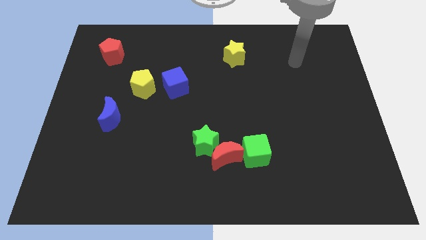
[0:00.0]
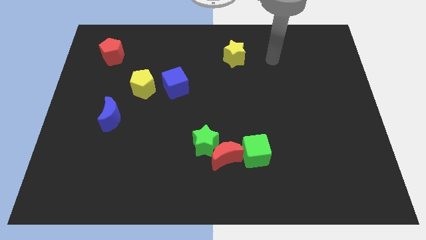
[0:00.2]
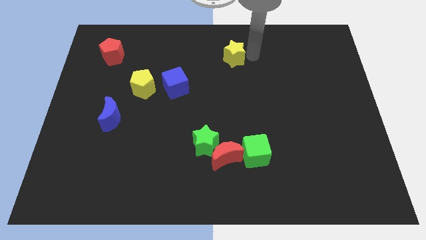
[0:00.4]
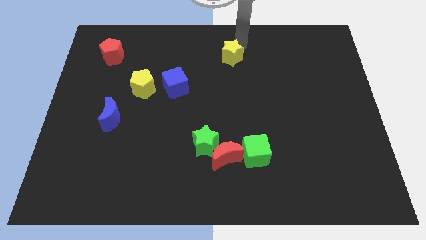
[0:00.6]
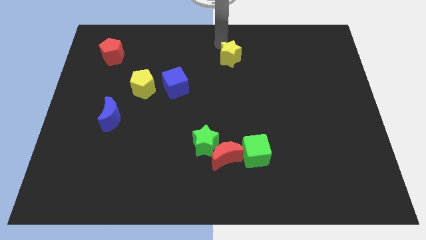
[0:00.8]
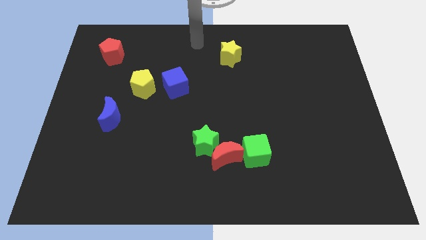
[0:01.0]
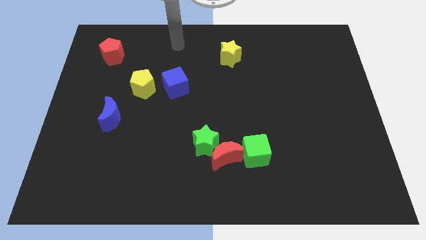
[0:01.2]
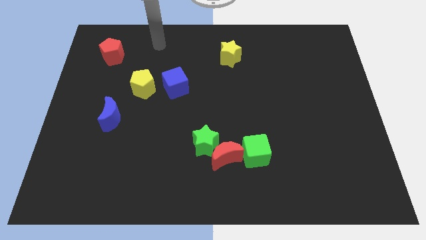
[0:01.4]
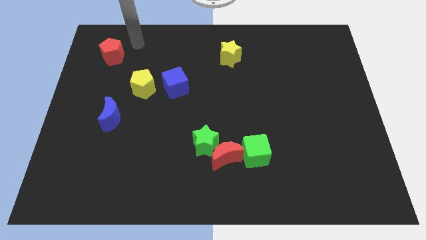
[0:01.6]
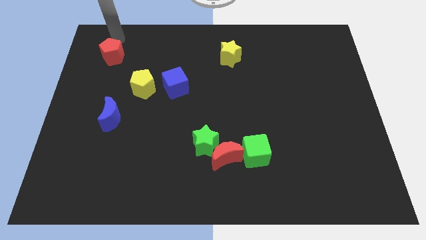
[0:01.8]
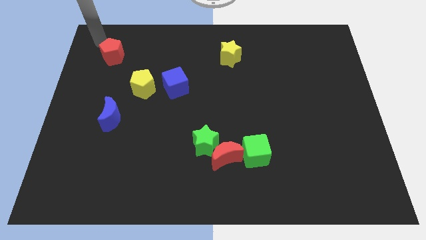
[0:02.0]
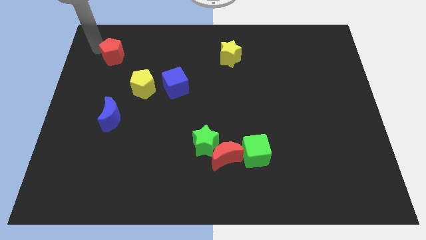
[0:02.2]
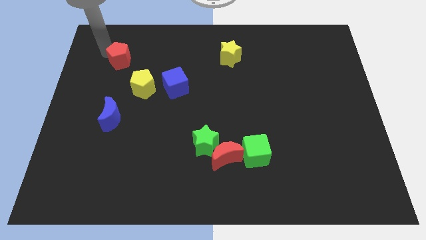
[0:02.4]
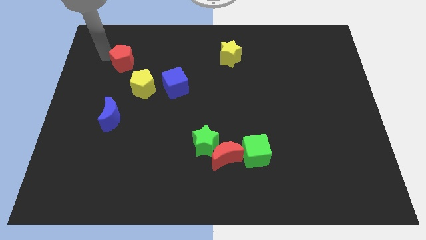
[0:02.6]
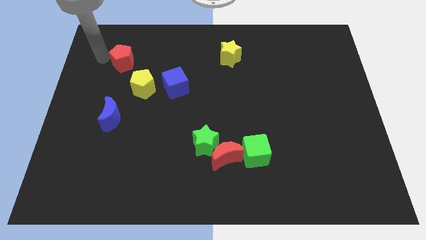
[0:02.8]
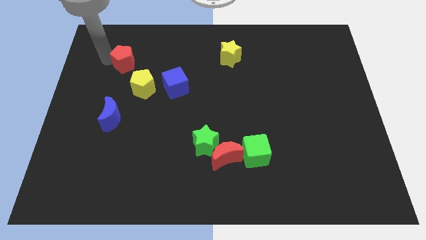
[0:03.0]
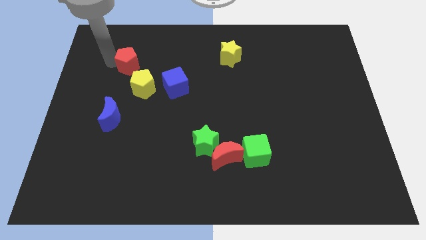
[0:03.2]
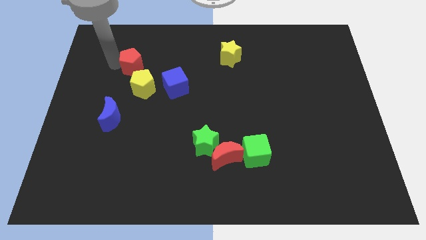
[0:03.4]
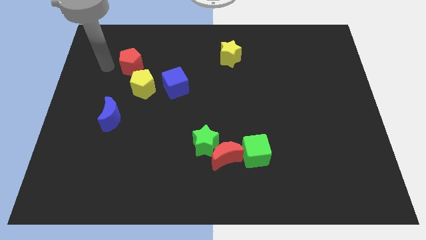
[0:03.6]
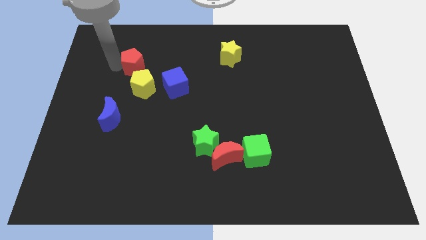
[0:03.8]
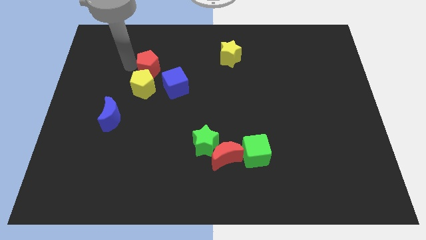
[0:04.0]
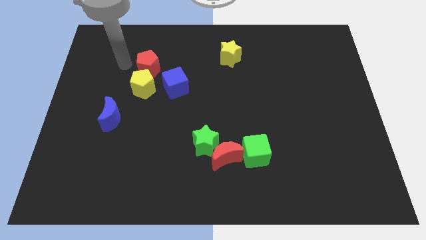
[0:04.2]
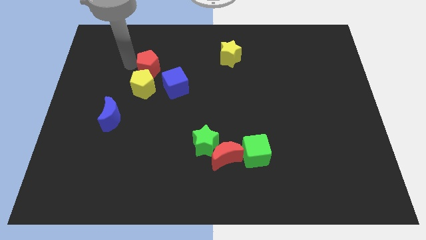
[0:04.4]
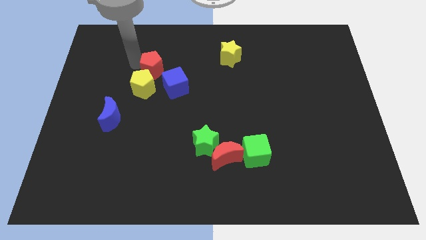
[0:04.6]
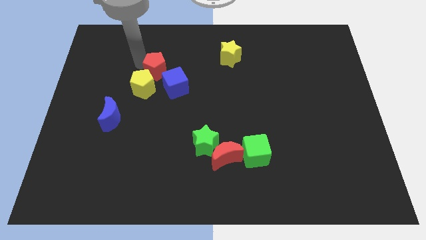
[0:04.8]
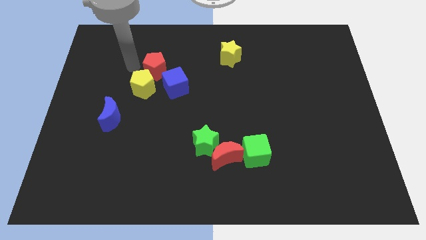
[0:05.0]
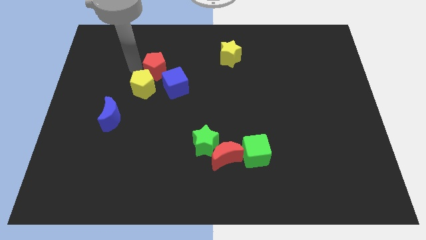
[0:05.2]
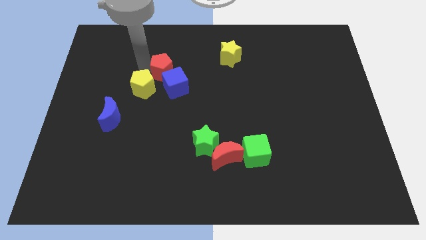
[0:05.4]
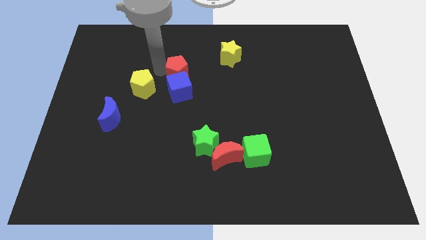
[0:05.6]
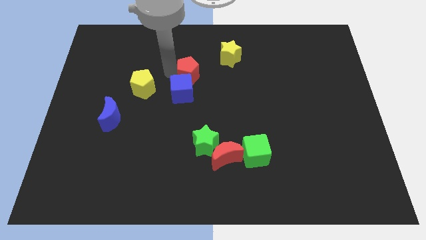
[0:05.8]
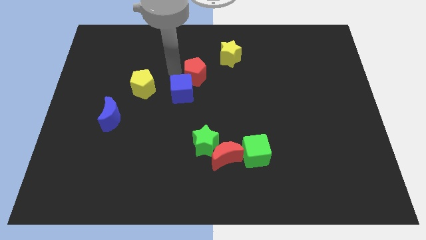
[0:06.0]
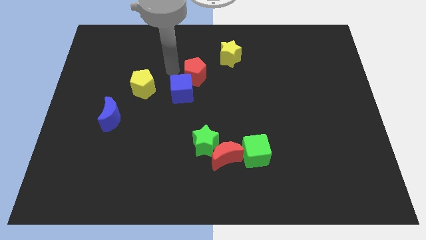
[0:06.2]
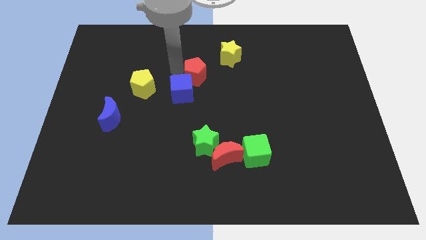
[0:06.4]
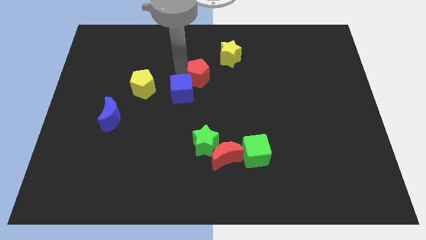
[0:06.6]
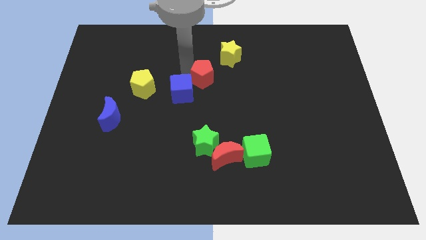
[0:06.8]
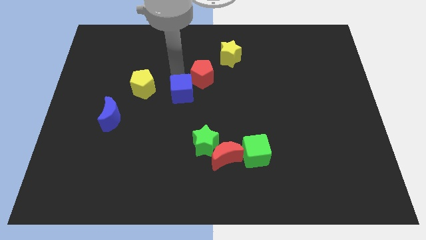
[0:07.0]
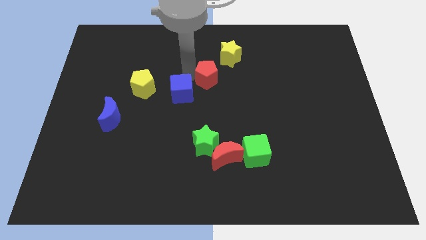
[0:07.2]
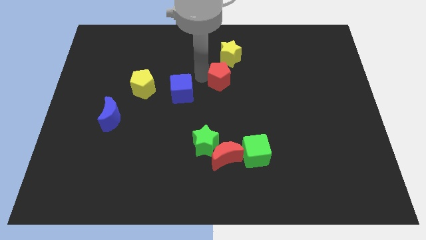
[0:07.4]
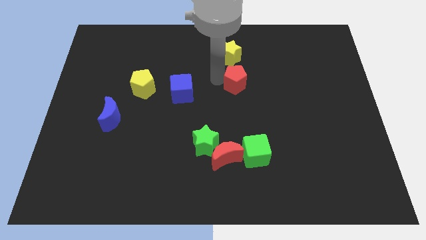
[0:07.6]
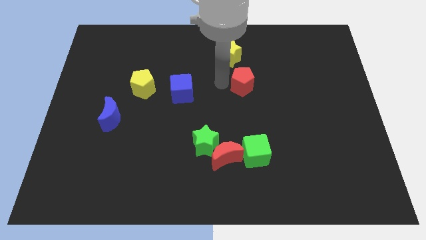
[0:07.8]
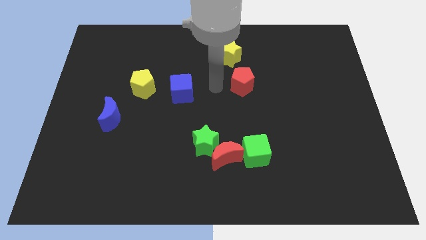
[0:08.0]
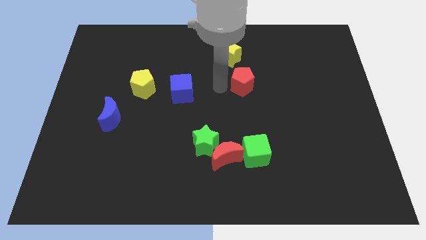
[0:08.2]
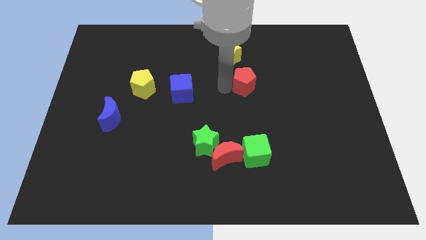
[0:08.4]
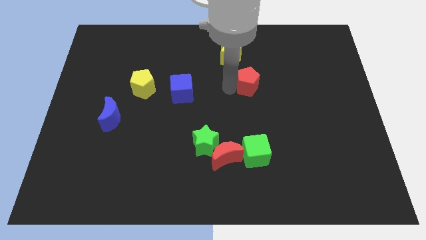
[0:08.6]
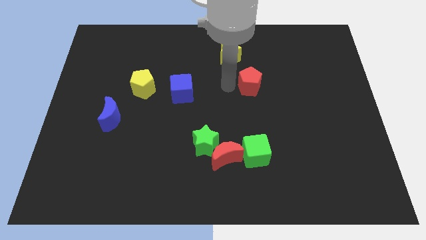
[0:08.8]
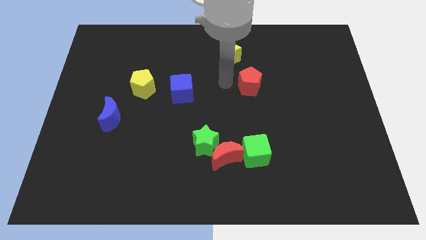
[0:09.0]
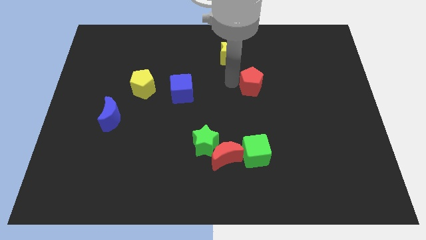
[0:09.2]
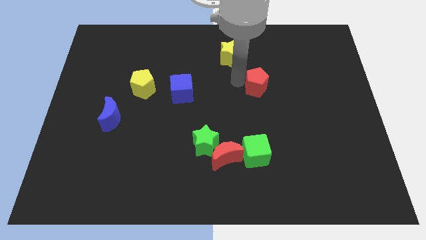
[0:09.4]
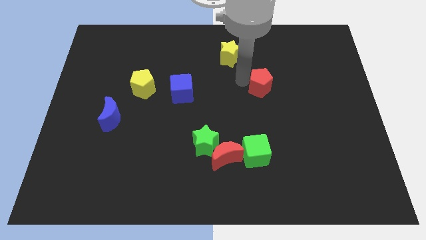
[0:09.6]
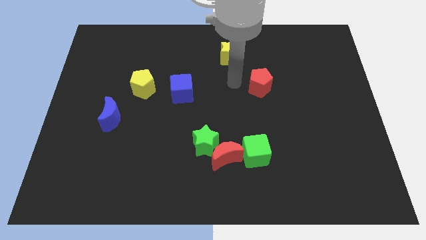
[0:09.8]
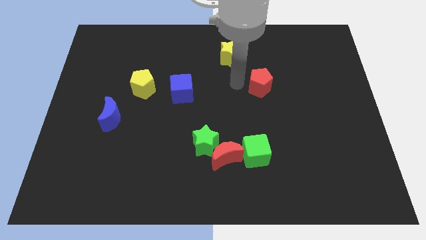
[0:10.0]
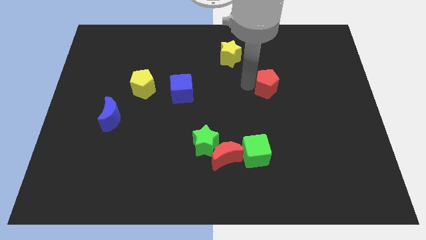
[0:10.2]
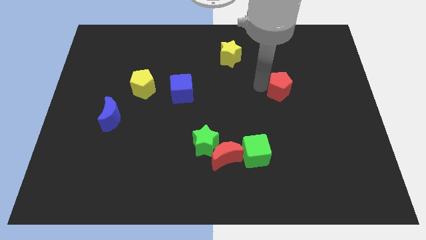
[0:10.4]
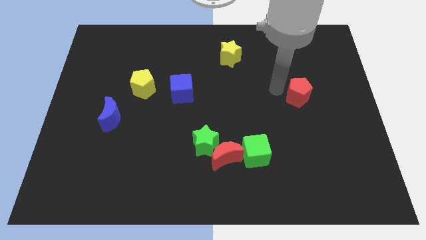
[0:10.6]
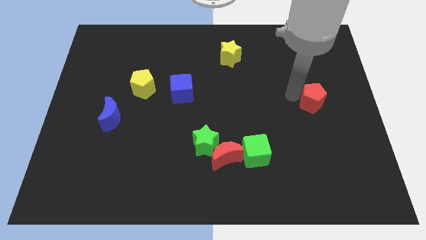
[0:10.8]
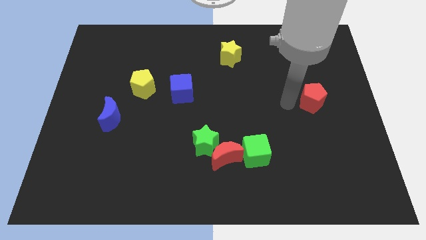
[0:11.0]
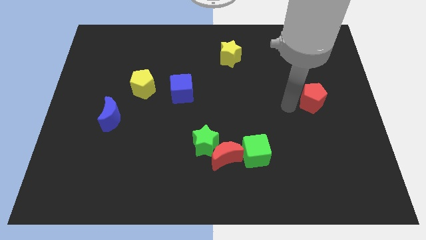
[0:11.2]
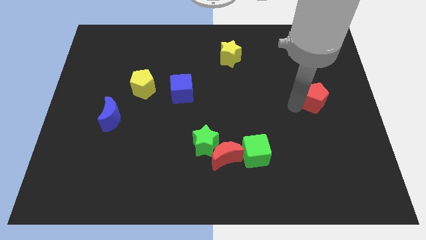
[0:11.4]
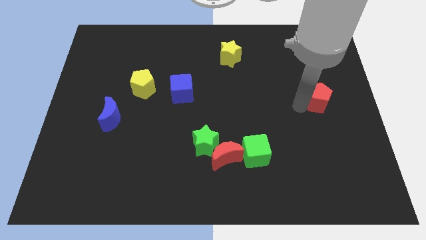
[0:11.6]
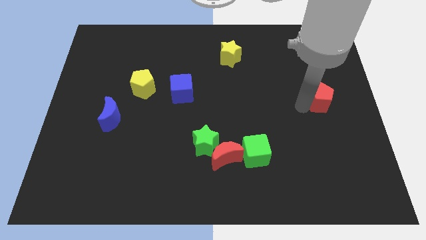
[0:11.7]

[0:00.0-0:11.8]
move the red pentagon to the right side of the board
